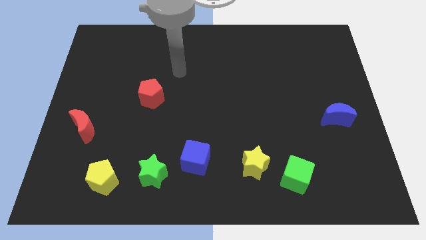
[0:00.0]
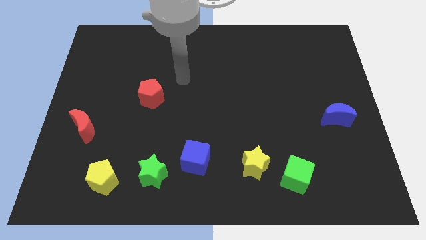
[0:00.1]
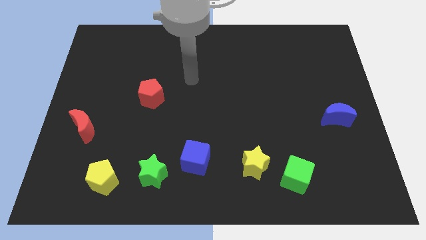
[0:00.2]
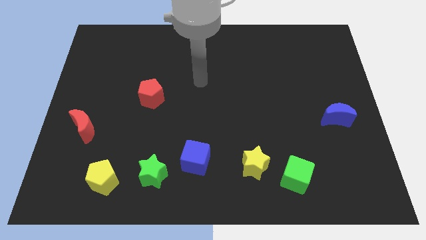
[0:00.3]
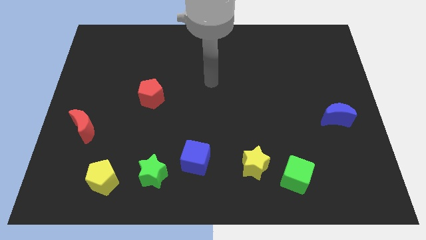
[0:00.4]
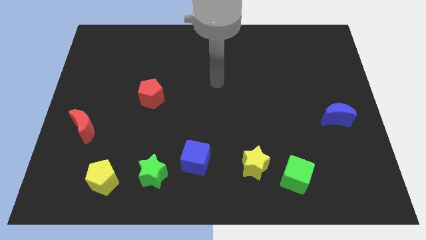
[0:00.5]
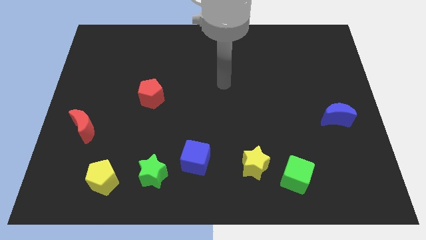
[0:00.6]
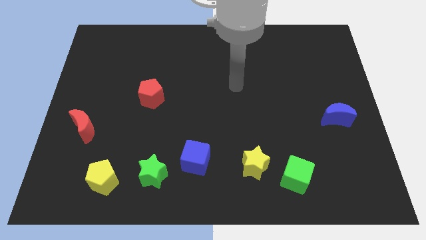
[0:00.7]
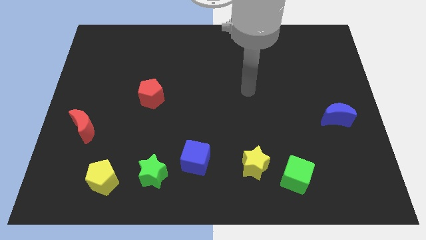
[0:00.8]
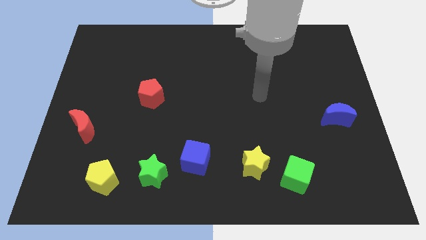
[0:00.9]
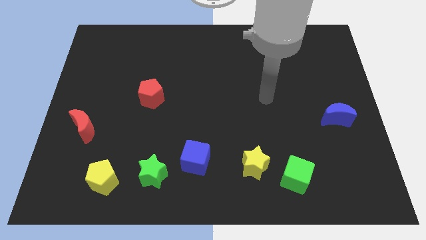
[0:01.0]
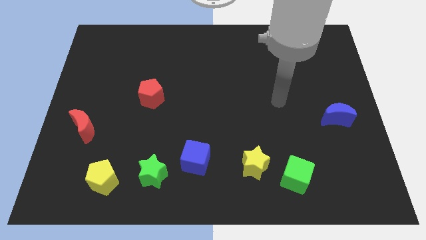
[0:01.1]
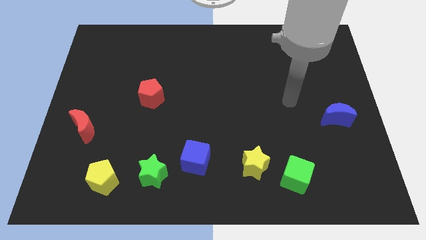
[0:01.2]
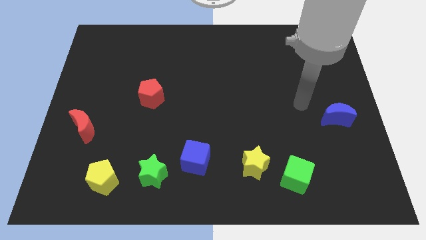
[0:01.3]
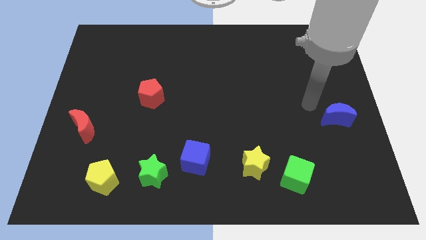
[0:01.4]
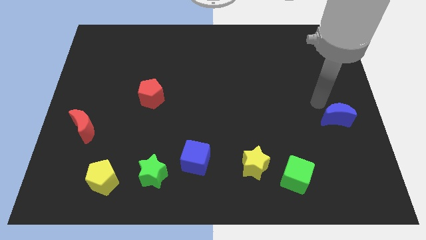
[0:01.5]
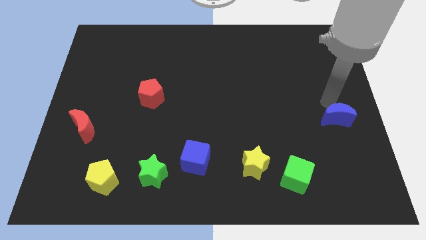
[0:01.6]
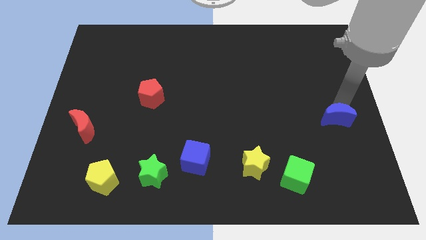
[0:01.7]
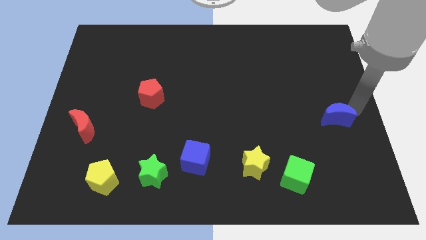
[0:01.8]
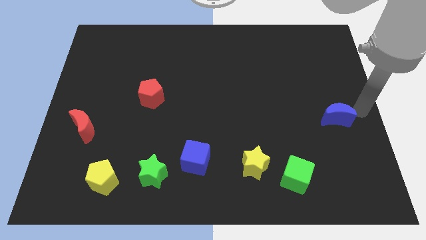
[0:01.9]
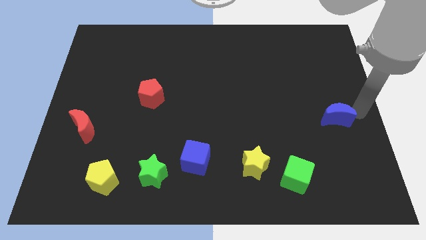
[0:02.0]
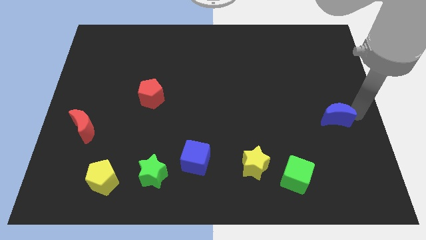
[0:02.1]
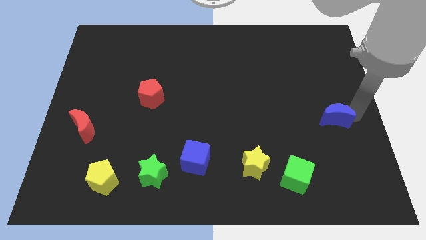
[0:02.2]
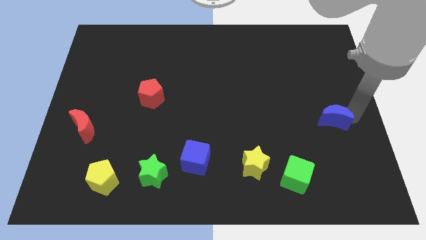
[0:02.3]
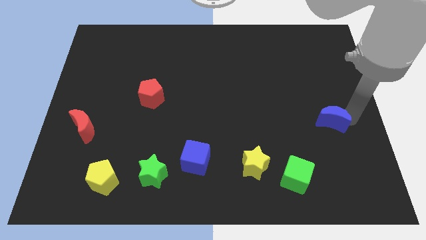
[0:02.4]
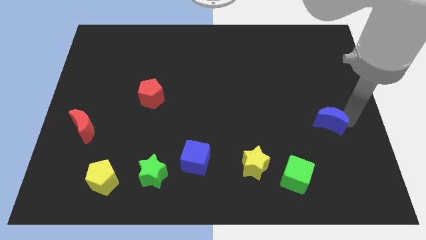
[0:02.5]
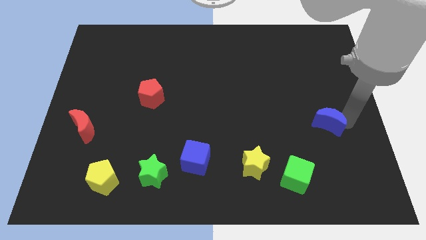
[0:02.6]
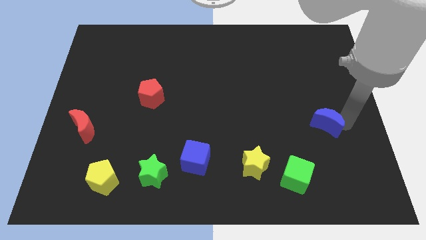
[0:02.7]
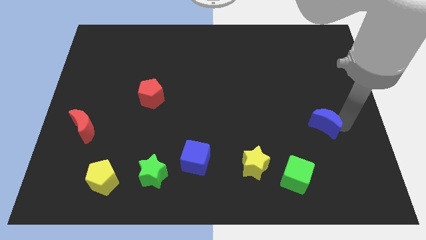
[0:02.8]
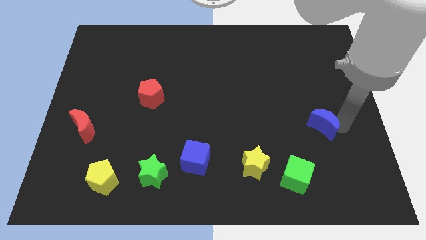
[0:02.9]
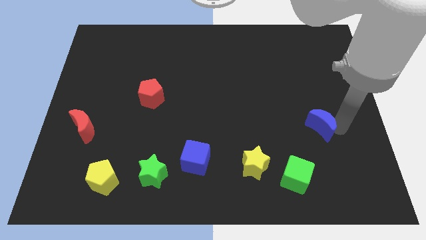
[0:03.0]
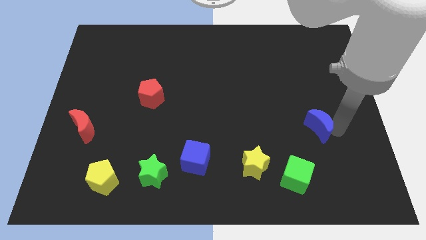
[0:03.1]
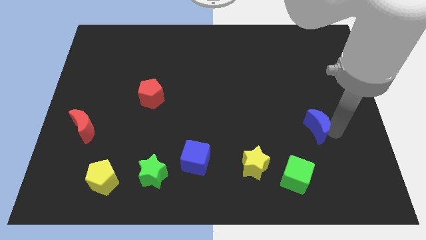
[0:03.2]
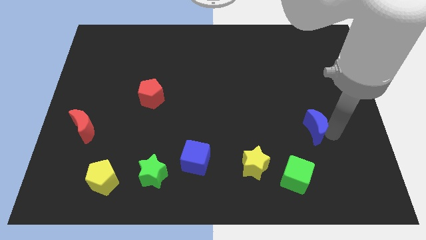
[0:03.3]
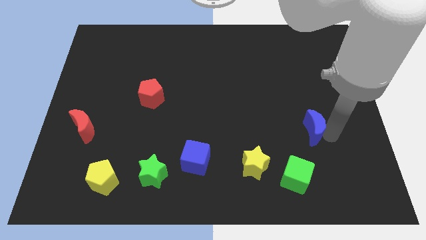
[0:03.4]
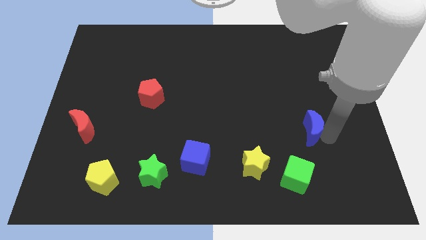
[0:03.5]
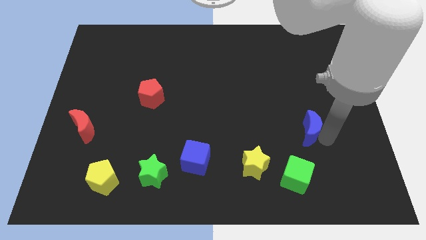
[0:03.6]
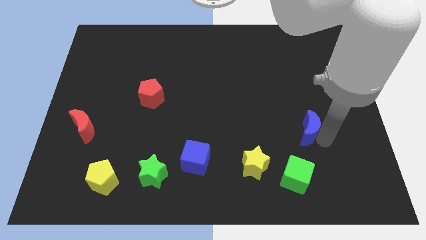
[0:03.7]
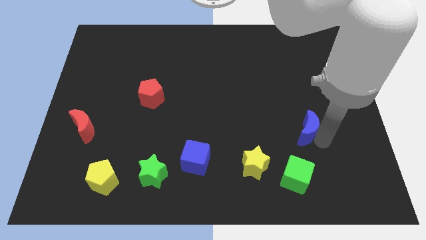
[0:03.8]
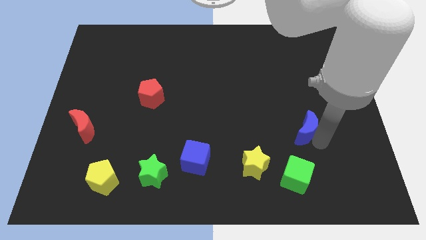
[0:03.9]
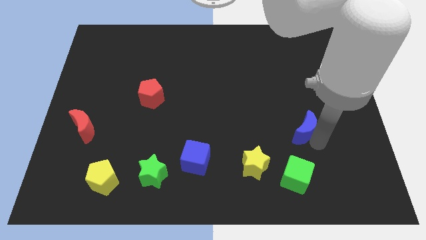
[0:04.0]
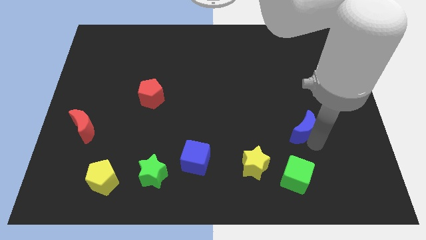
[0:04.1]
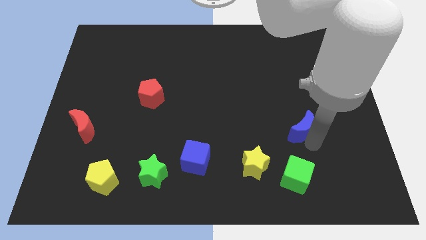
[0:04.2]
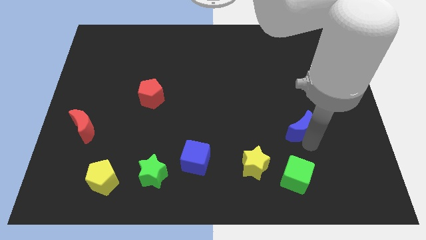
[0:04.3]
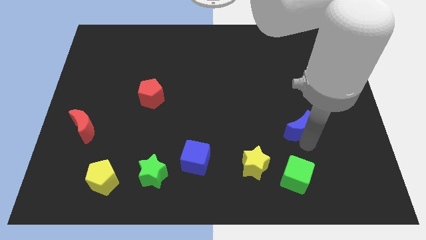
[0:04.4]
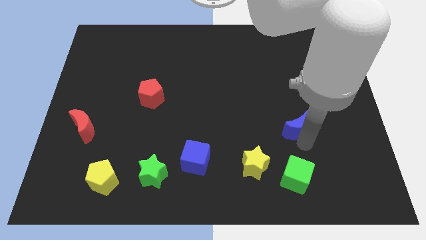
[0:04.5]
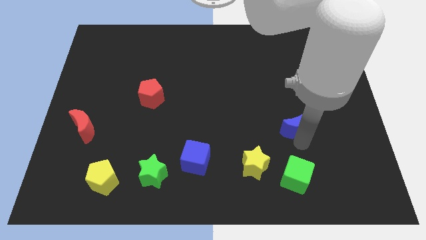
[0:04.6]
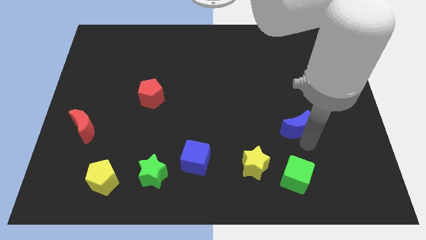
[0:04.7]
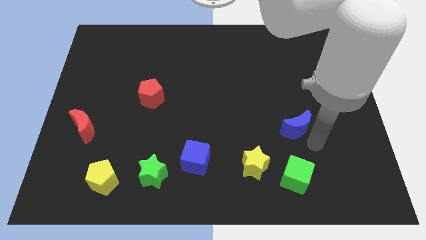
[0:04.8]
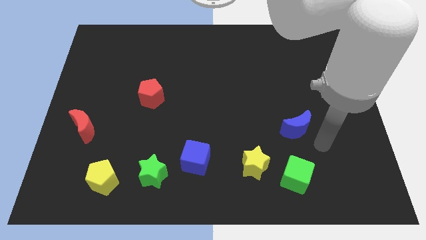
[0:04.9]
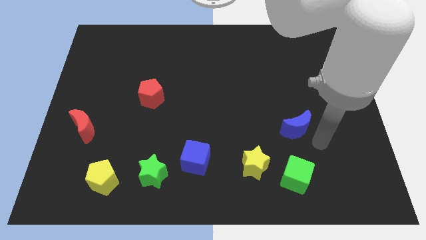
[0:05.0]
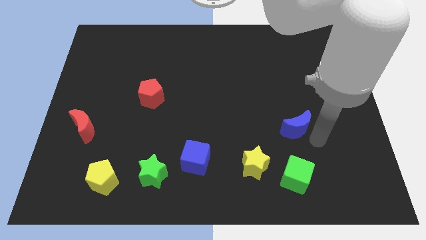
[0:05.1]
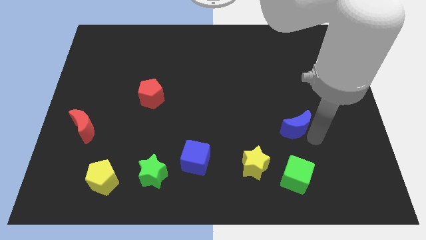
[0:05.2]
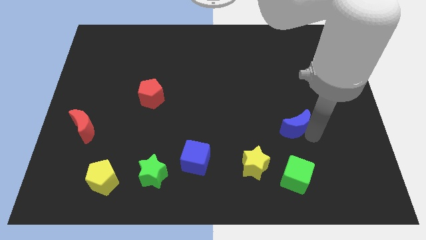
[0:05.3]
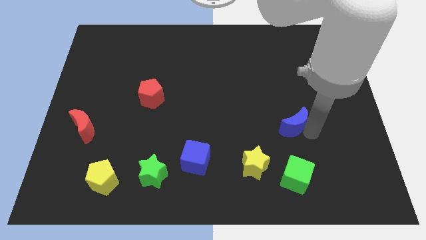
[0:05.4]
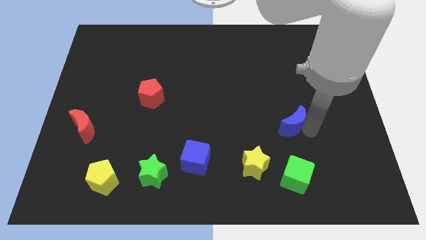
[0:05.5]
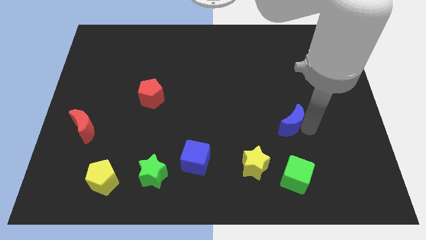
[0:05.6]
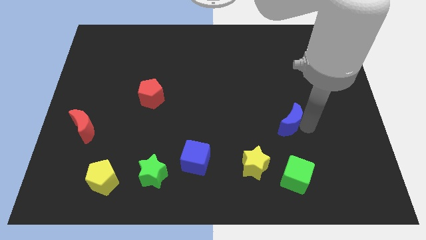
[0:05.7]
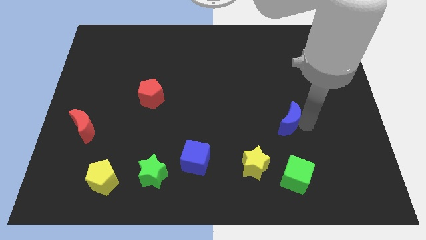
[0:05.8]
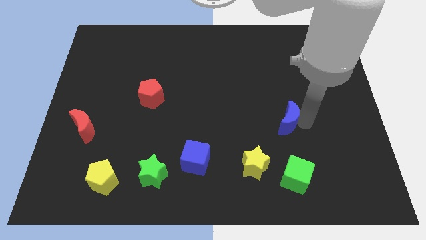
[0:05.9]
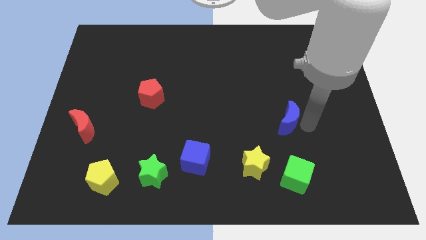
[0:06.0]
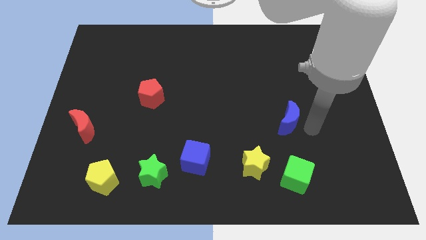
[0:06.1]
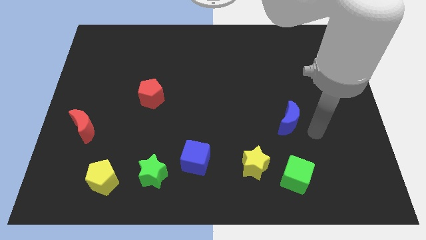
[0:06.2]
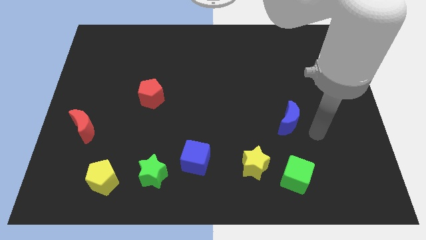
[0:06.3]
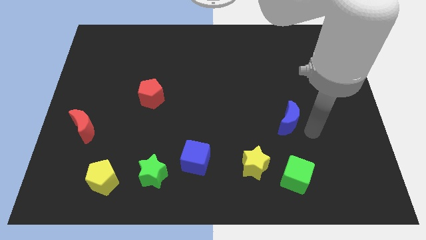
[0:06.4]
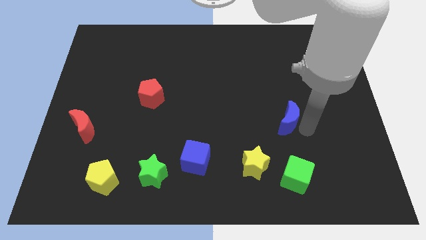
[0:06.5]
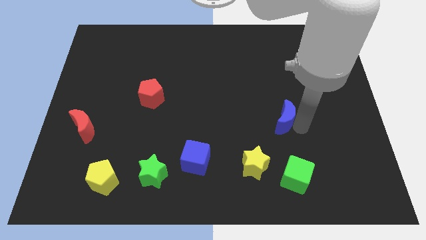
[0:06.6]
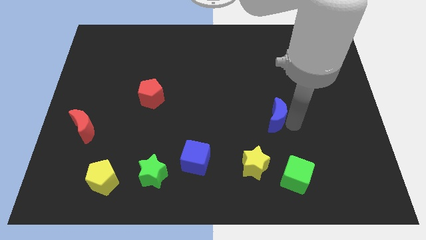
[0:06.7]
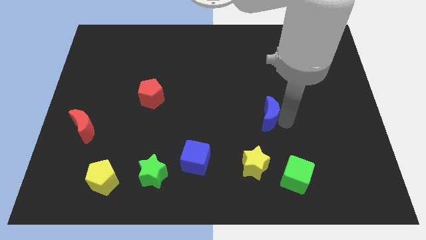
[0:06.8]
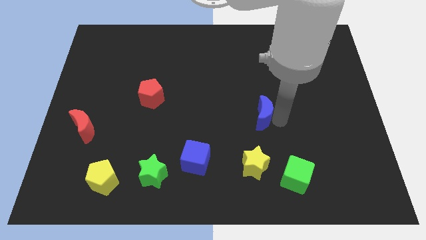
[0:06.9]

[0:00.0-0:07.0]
move the blue moon to the center
